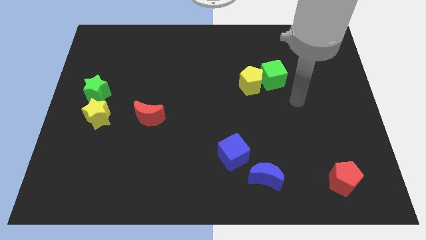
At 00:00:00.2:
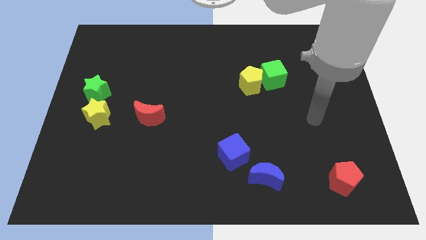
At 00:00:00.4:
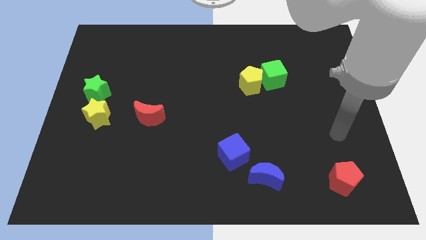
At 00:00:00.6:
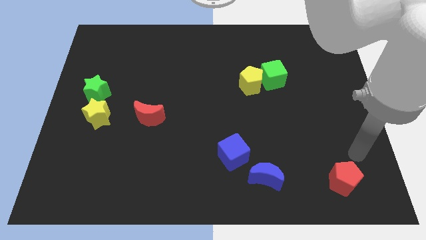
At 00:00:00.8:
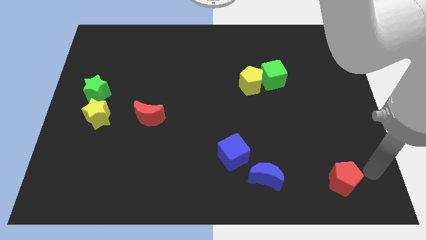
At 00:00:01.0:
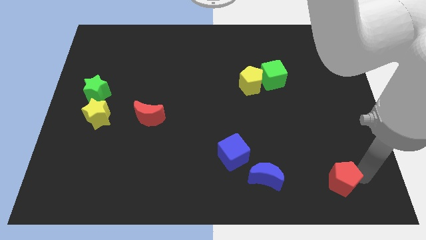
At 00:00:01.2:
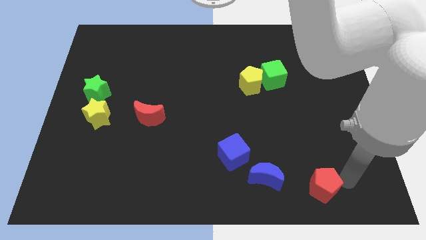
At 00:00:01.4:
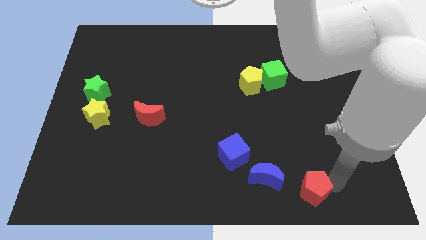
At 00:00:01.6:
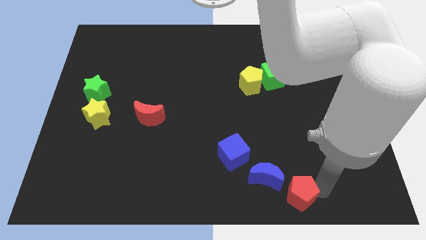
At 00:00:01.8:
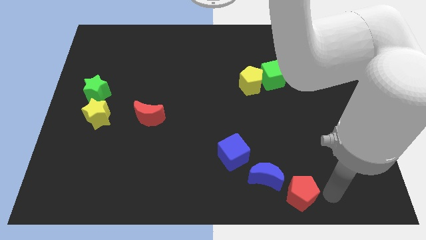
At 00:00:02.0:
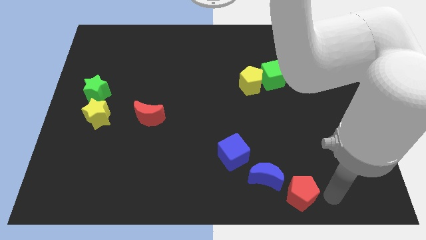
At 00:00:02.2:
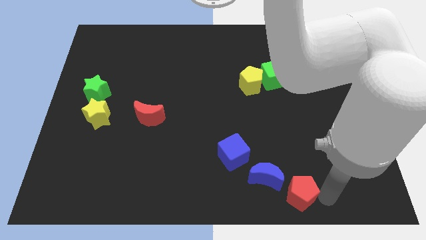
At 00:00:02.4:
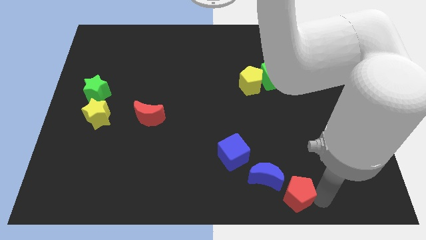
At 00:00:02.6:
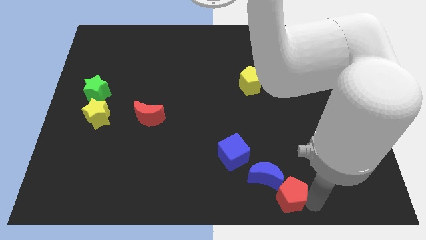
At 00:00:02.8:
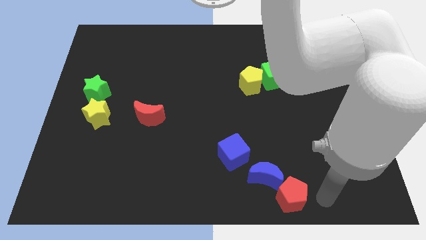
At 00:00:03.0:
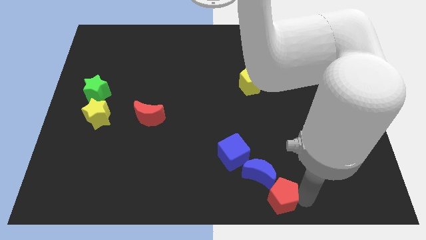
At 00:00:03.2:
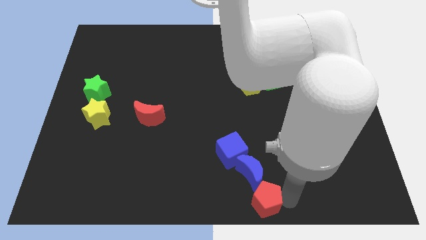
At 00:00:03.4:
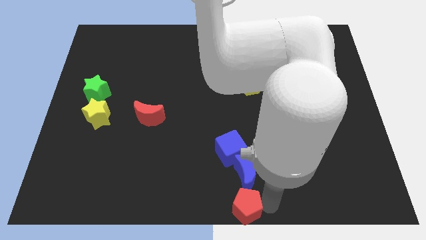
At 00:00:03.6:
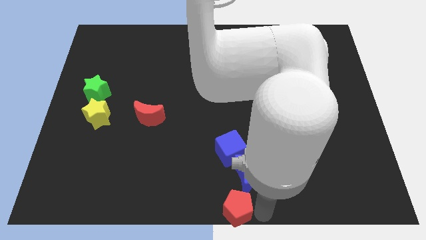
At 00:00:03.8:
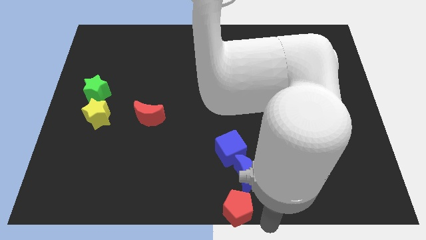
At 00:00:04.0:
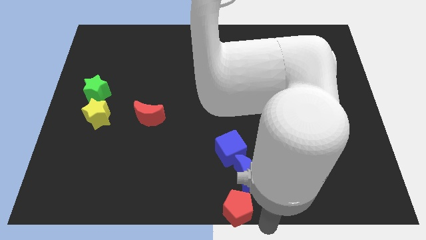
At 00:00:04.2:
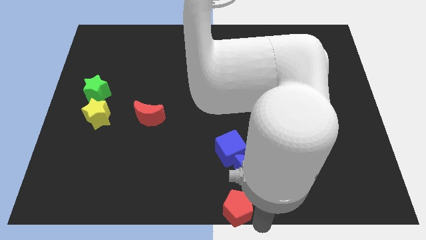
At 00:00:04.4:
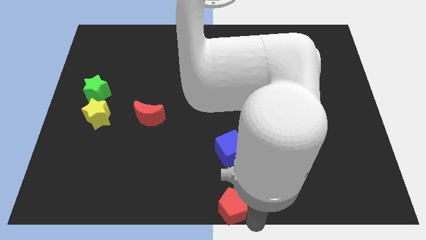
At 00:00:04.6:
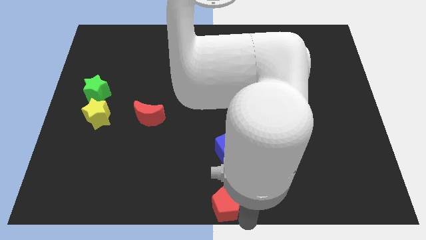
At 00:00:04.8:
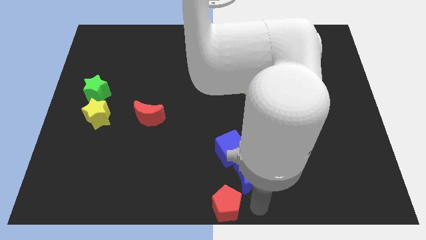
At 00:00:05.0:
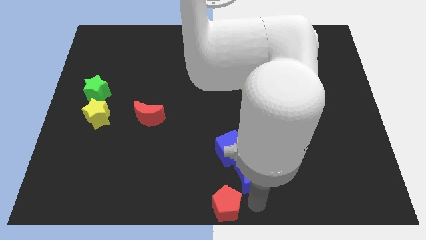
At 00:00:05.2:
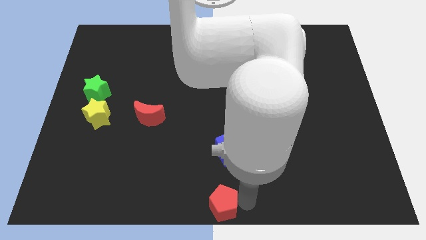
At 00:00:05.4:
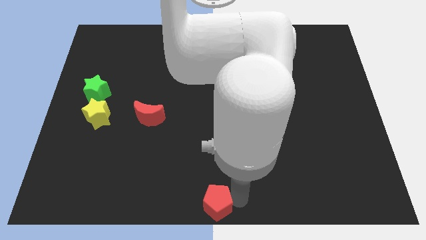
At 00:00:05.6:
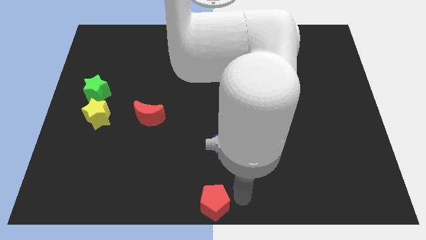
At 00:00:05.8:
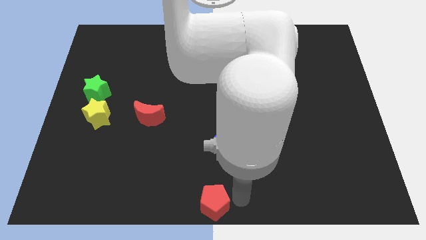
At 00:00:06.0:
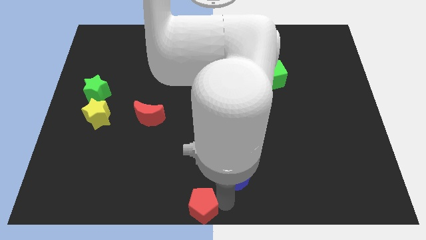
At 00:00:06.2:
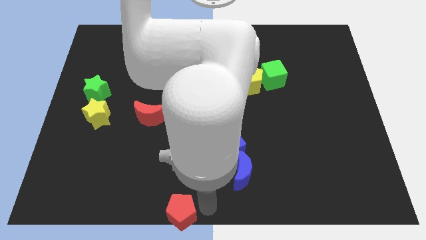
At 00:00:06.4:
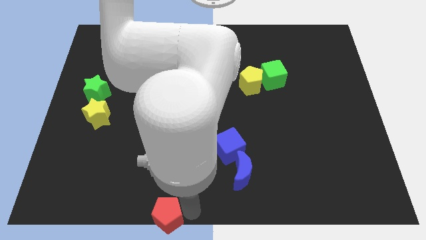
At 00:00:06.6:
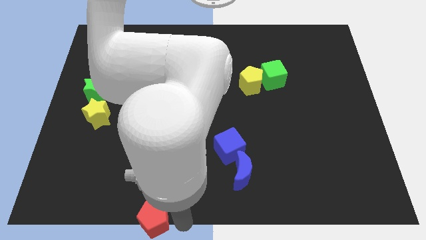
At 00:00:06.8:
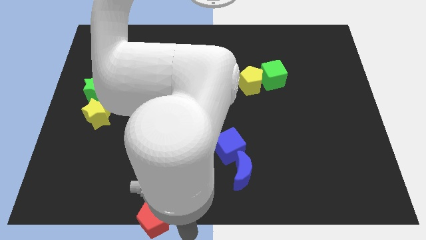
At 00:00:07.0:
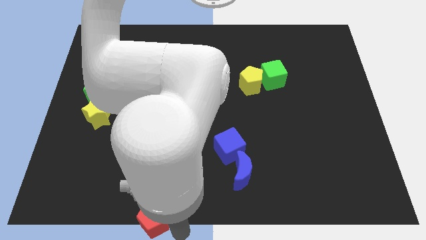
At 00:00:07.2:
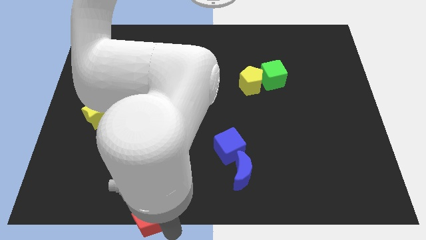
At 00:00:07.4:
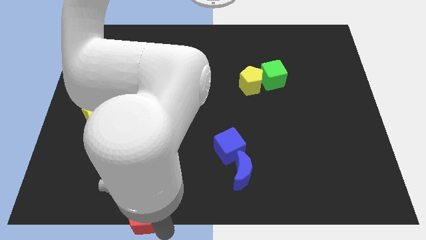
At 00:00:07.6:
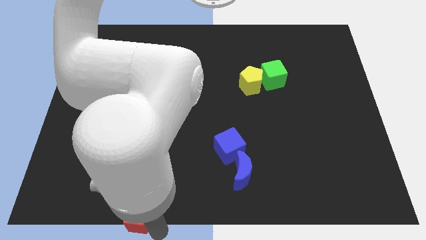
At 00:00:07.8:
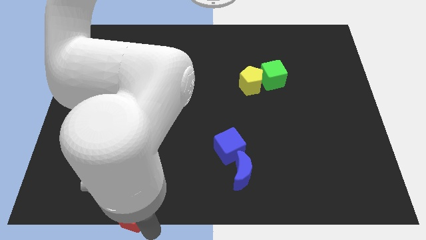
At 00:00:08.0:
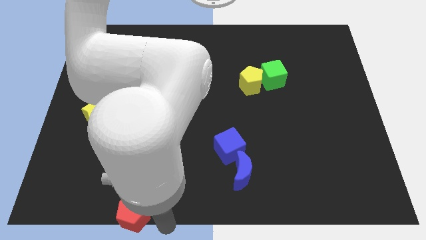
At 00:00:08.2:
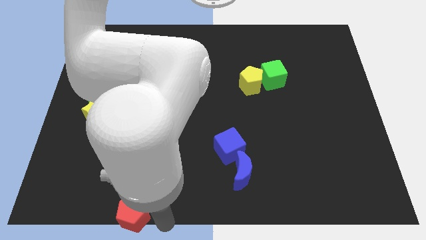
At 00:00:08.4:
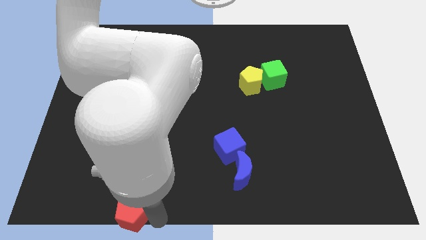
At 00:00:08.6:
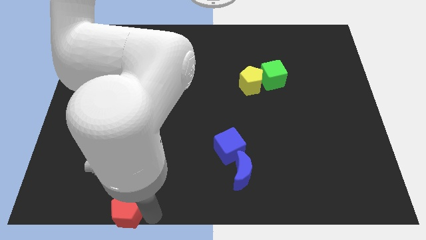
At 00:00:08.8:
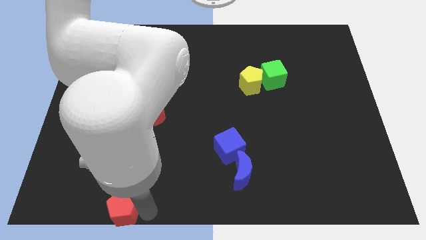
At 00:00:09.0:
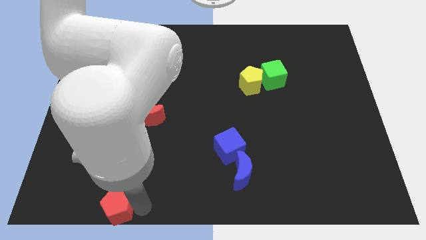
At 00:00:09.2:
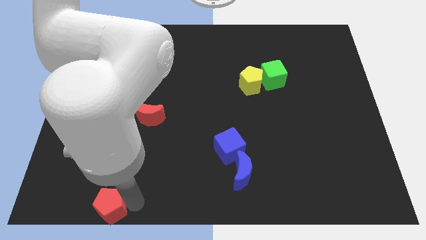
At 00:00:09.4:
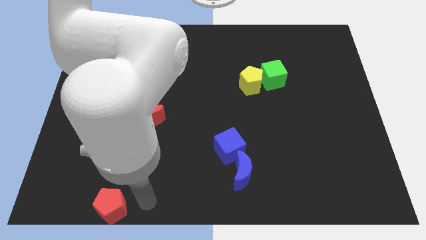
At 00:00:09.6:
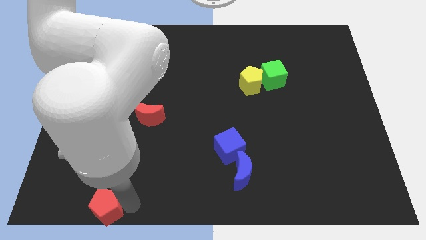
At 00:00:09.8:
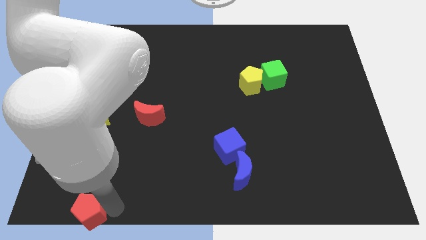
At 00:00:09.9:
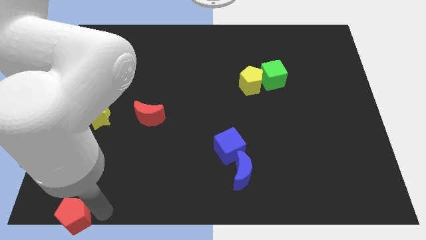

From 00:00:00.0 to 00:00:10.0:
put the red pentagon to the bottom left

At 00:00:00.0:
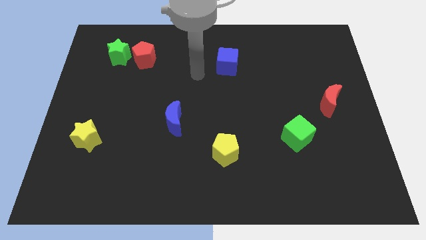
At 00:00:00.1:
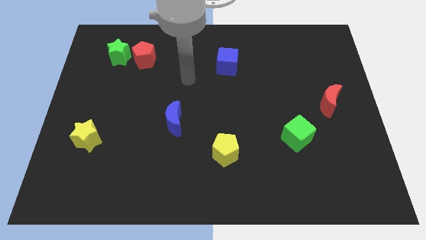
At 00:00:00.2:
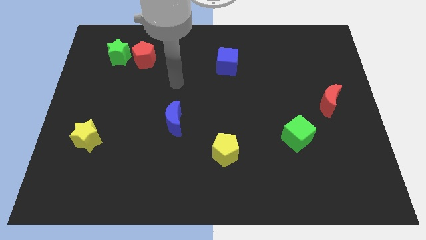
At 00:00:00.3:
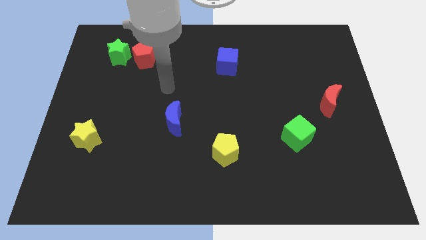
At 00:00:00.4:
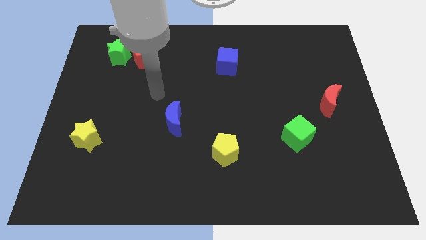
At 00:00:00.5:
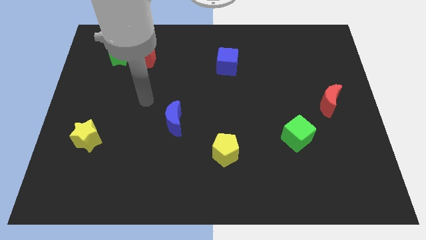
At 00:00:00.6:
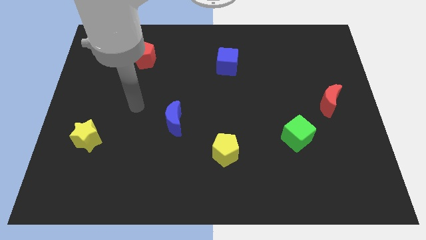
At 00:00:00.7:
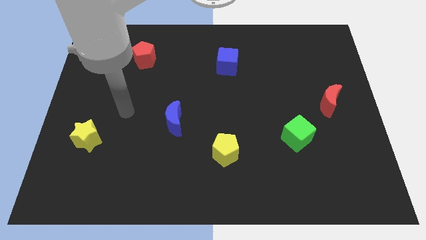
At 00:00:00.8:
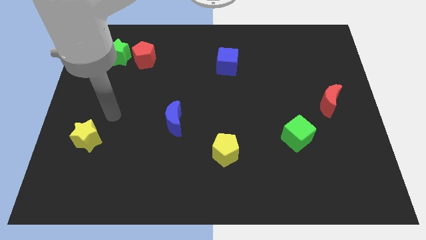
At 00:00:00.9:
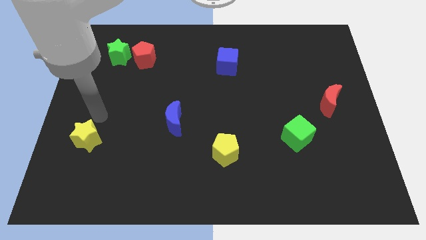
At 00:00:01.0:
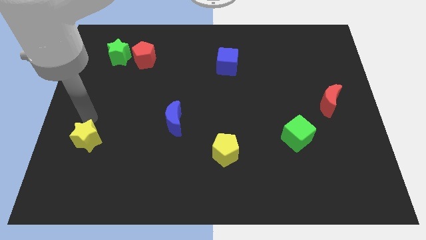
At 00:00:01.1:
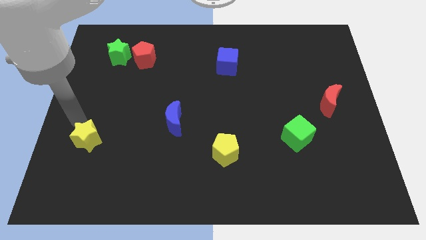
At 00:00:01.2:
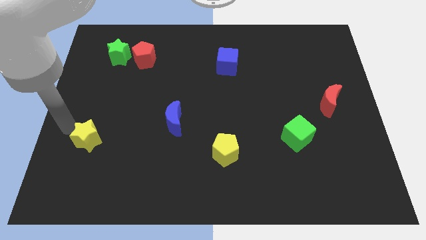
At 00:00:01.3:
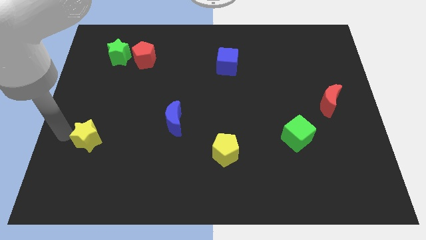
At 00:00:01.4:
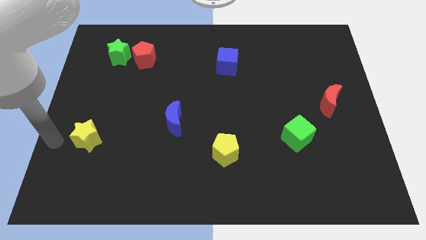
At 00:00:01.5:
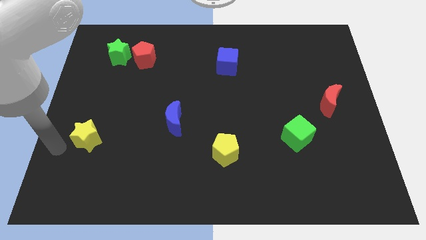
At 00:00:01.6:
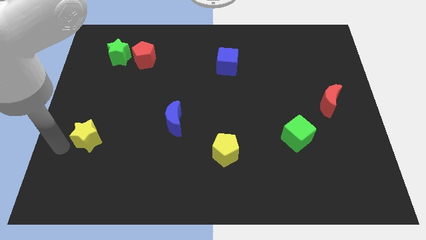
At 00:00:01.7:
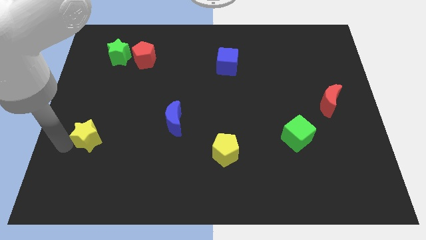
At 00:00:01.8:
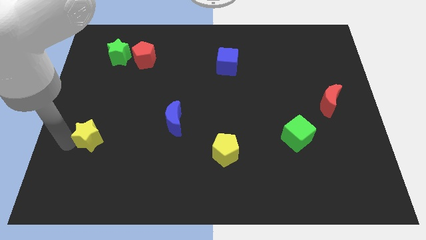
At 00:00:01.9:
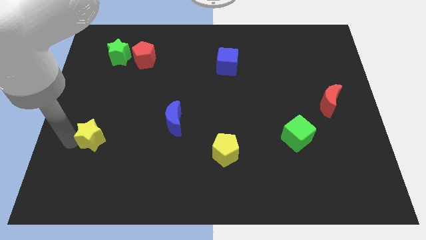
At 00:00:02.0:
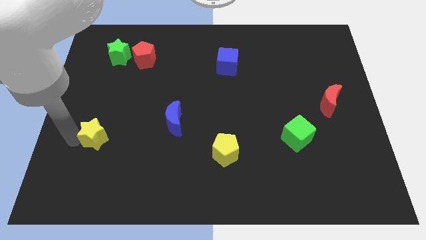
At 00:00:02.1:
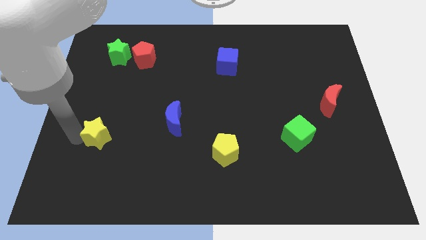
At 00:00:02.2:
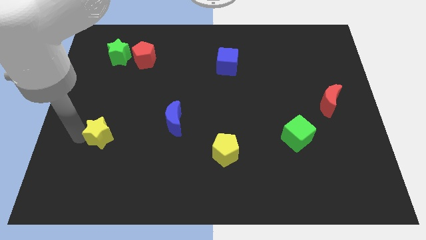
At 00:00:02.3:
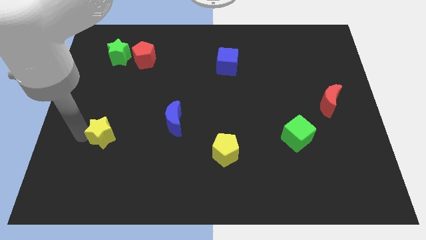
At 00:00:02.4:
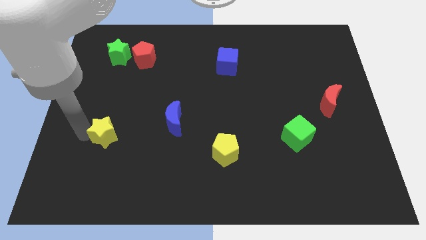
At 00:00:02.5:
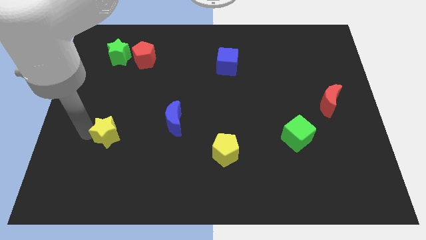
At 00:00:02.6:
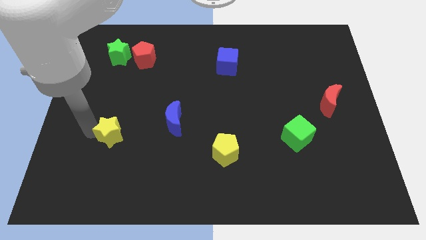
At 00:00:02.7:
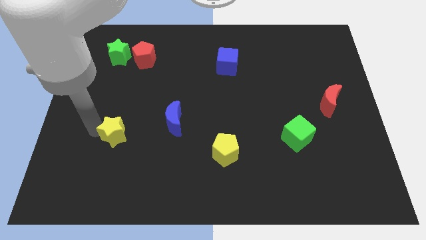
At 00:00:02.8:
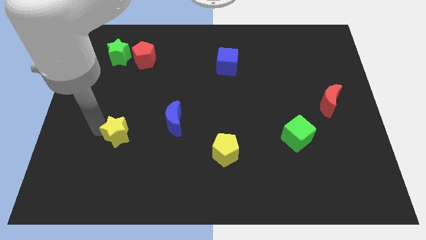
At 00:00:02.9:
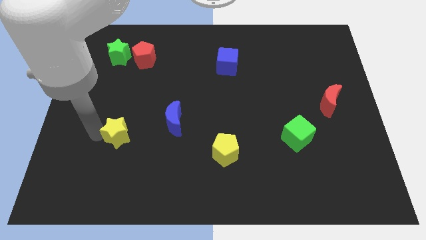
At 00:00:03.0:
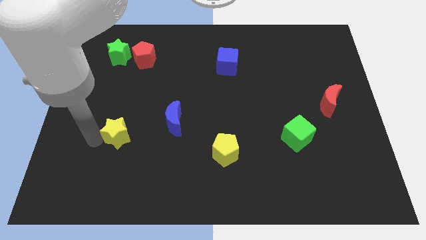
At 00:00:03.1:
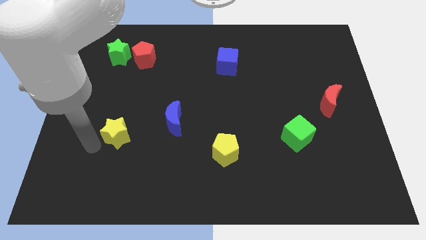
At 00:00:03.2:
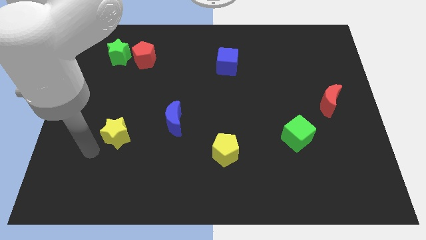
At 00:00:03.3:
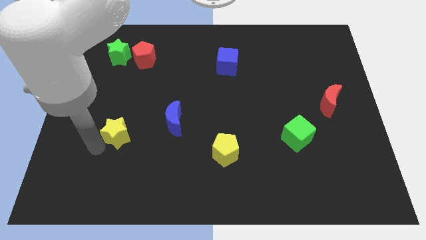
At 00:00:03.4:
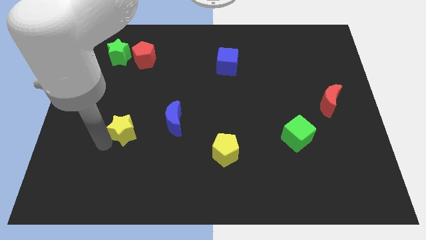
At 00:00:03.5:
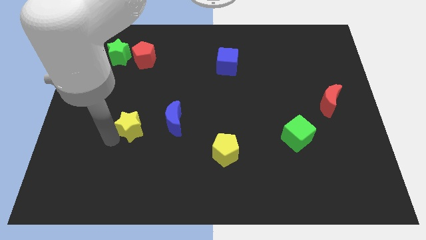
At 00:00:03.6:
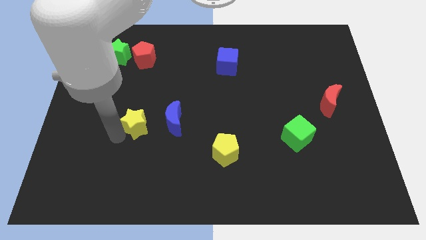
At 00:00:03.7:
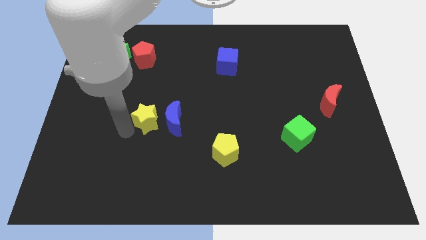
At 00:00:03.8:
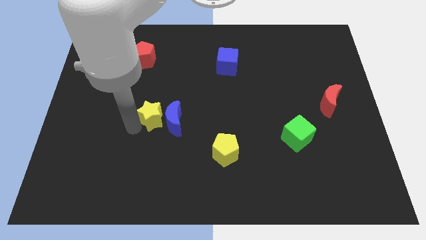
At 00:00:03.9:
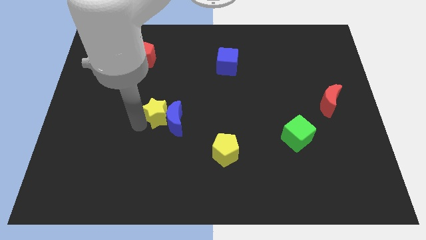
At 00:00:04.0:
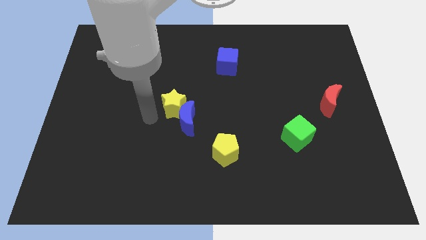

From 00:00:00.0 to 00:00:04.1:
put the yellow star to the center of the board
